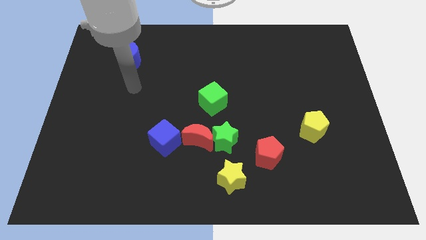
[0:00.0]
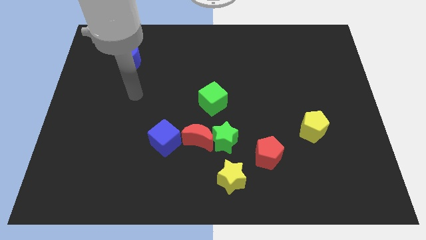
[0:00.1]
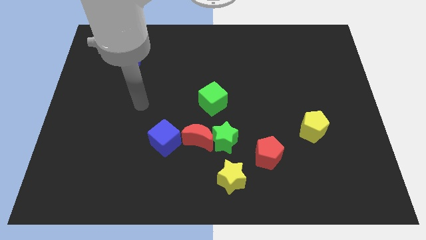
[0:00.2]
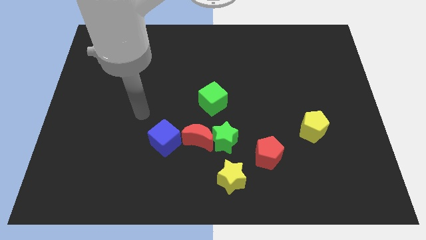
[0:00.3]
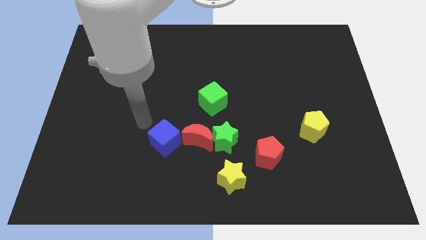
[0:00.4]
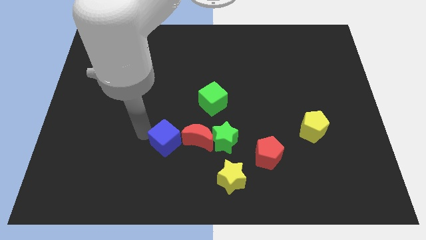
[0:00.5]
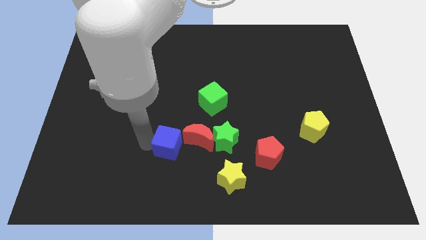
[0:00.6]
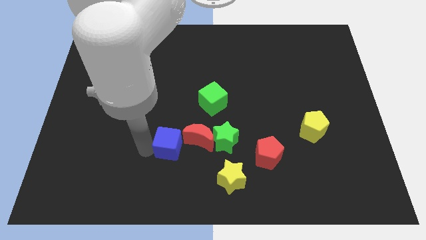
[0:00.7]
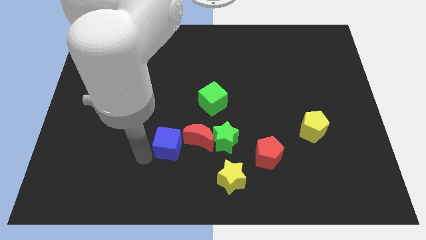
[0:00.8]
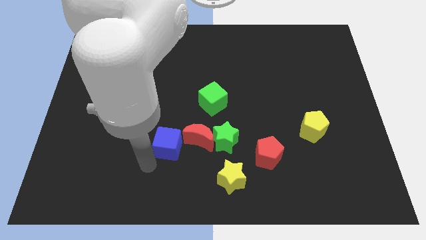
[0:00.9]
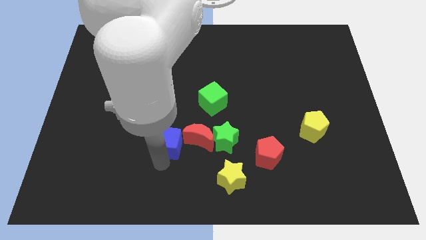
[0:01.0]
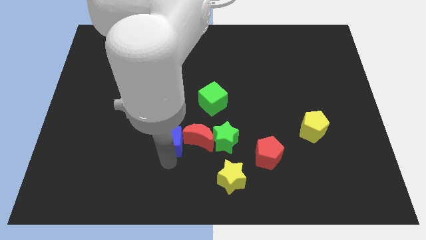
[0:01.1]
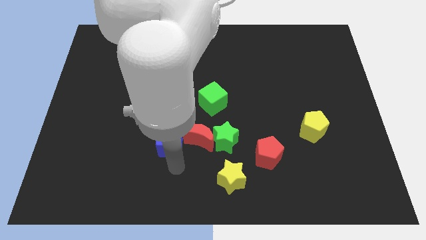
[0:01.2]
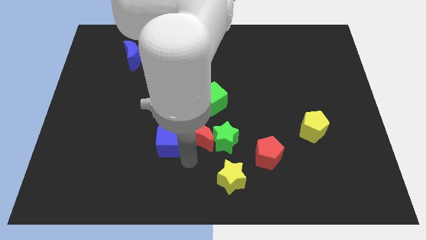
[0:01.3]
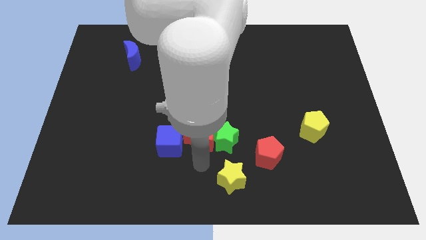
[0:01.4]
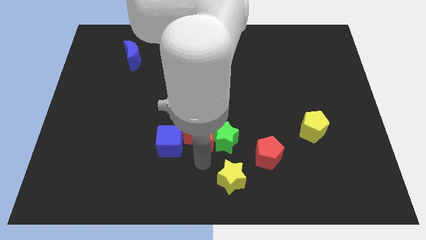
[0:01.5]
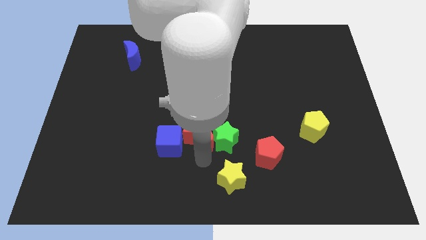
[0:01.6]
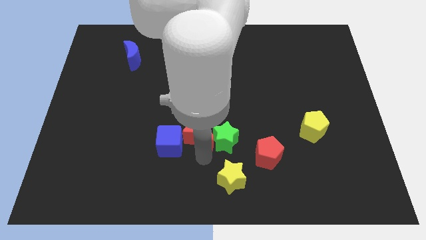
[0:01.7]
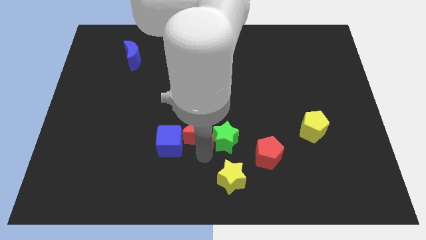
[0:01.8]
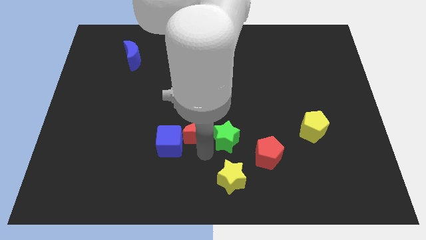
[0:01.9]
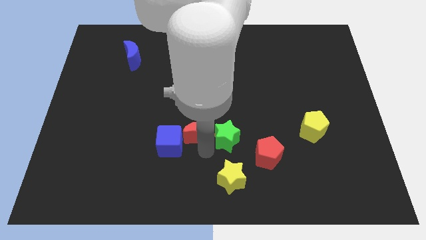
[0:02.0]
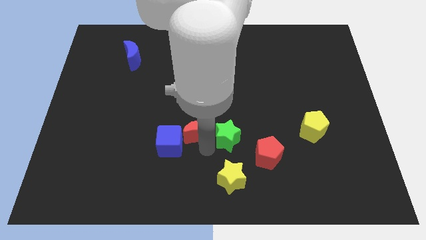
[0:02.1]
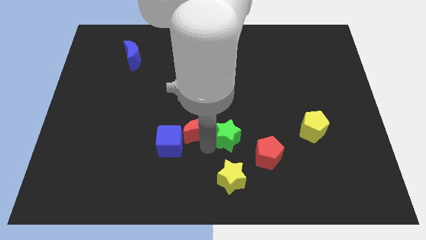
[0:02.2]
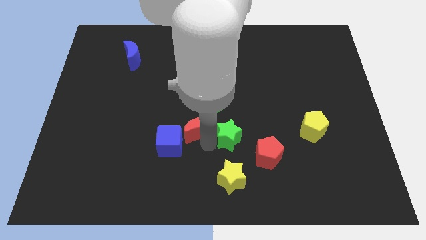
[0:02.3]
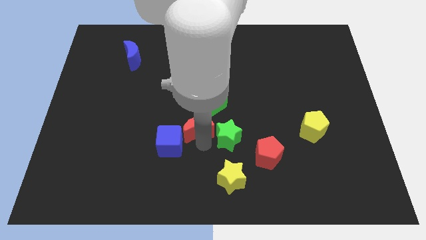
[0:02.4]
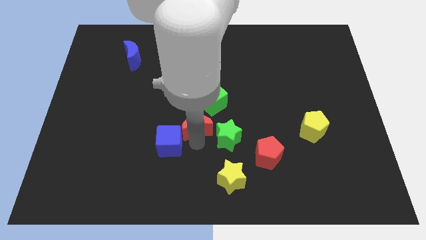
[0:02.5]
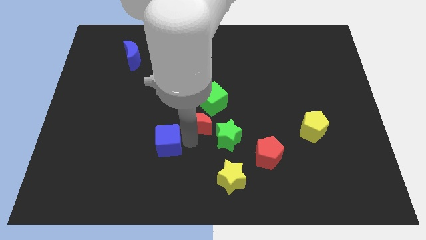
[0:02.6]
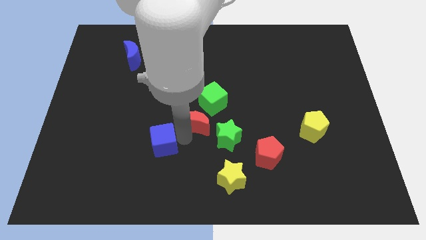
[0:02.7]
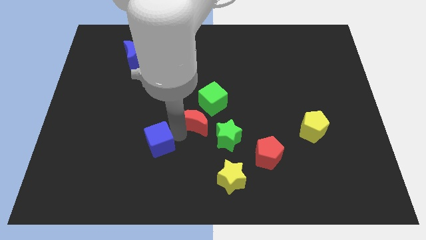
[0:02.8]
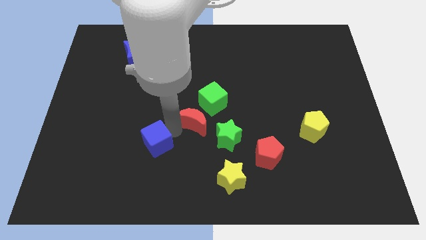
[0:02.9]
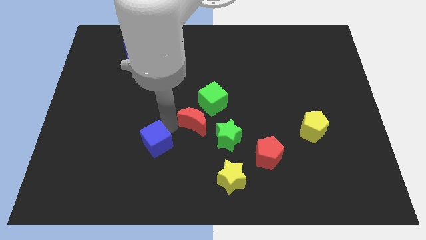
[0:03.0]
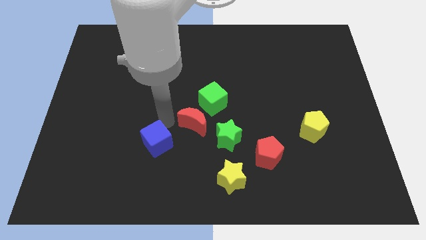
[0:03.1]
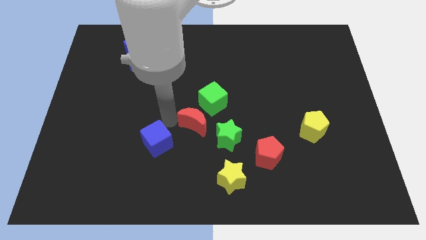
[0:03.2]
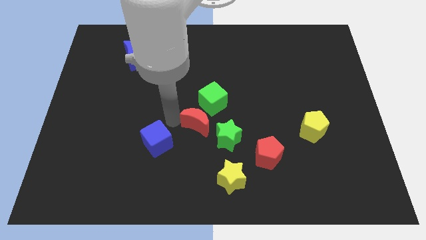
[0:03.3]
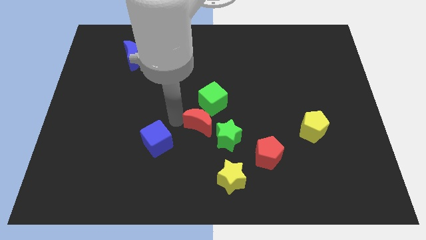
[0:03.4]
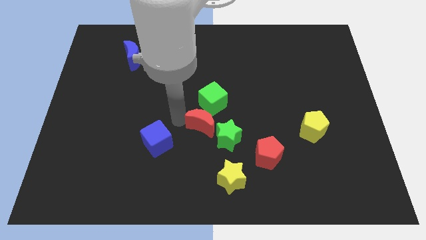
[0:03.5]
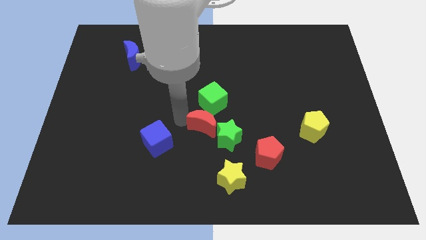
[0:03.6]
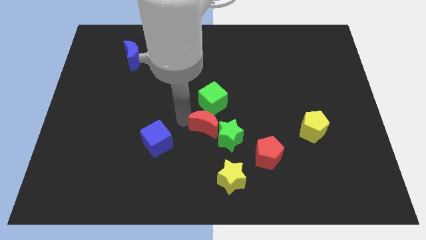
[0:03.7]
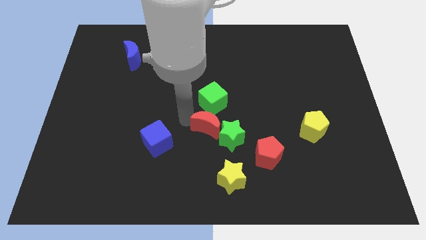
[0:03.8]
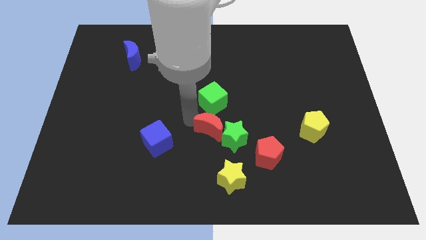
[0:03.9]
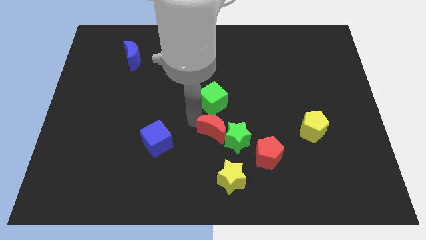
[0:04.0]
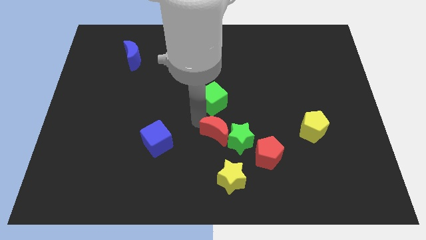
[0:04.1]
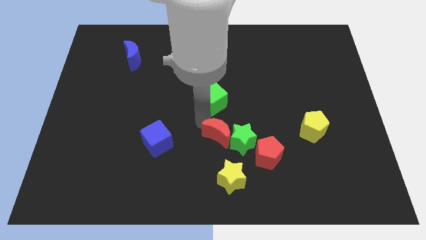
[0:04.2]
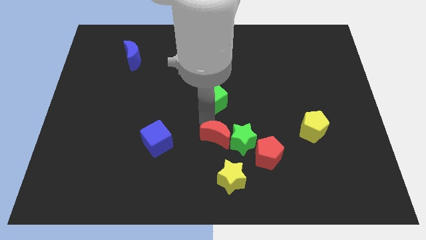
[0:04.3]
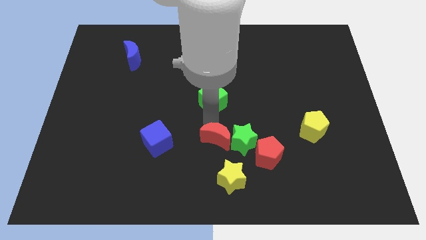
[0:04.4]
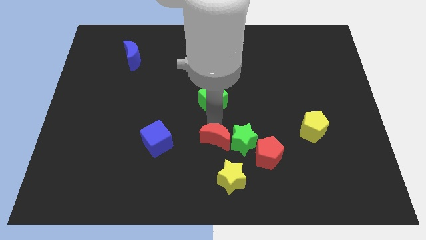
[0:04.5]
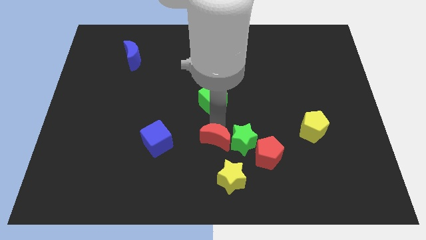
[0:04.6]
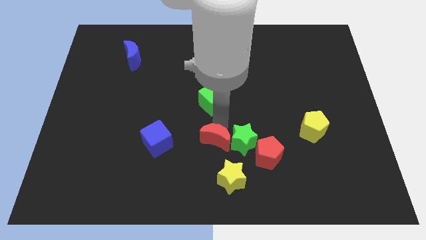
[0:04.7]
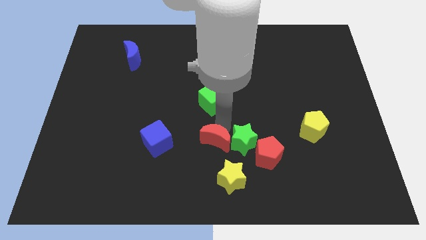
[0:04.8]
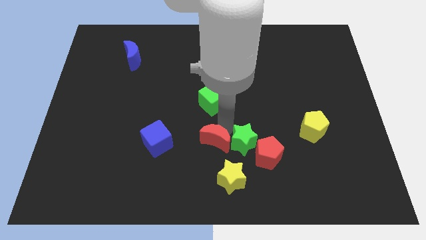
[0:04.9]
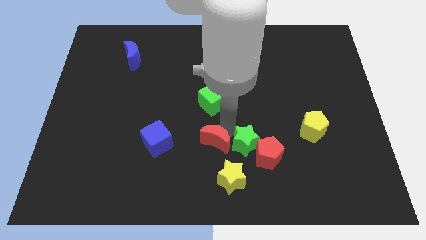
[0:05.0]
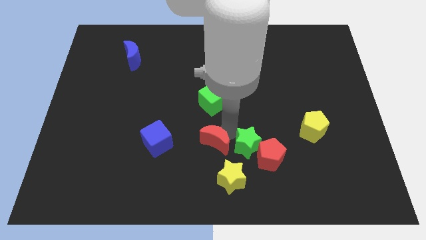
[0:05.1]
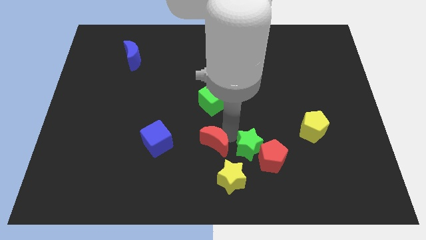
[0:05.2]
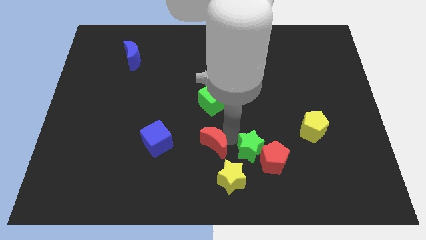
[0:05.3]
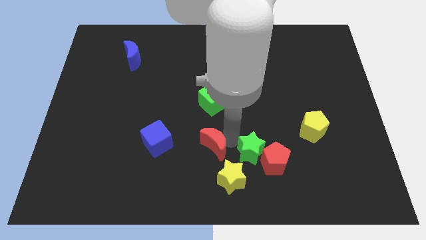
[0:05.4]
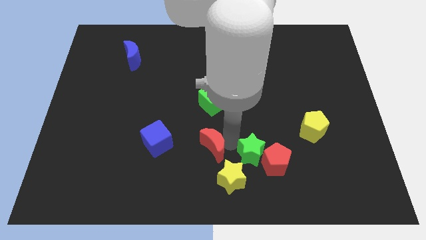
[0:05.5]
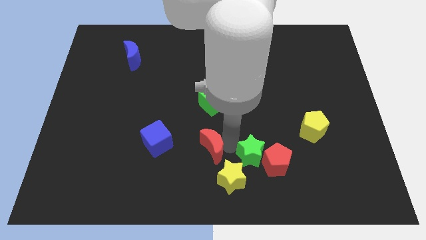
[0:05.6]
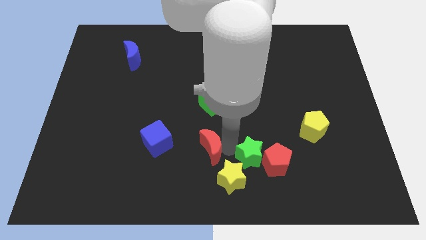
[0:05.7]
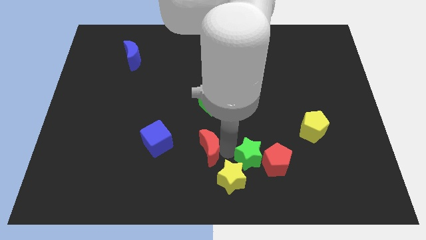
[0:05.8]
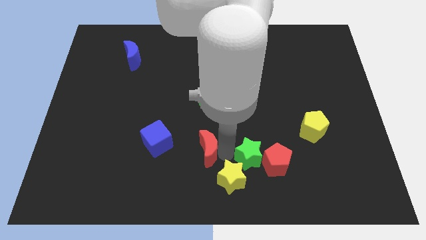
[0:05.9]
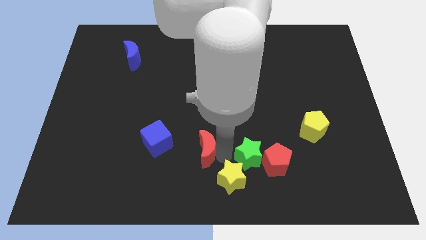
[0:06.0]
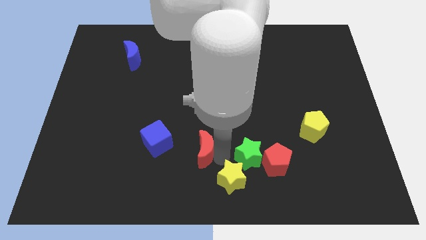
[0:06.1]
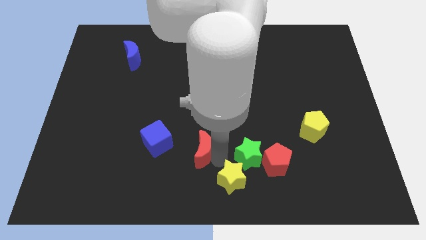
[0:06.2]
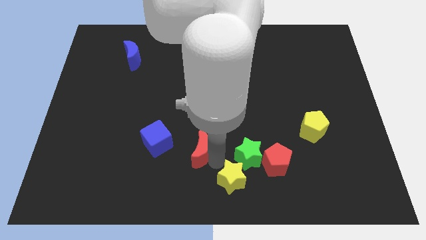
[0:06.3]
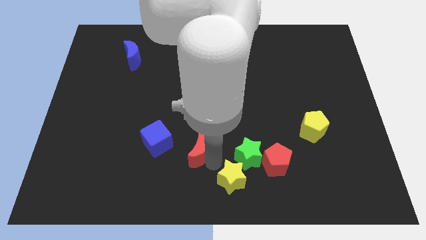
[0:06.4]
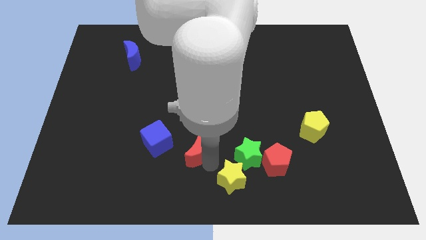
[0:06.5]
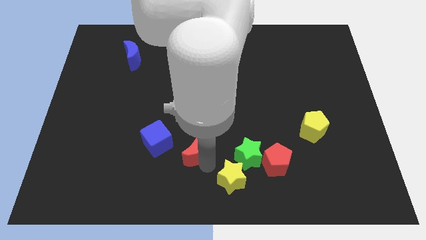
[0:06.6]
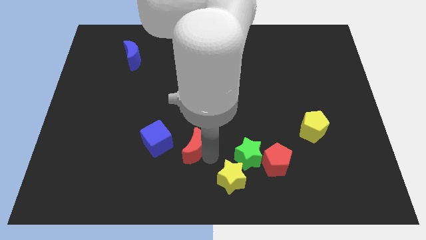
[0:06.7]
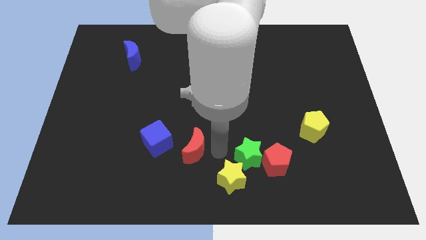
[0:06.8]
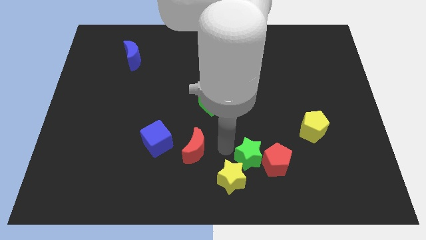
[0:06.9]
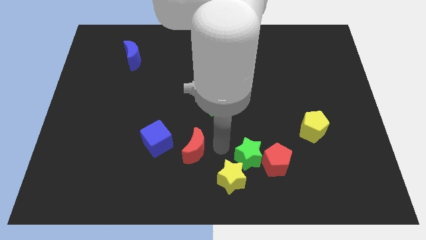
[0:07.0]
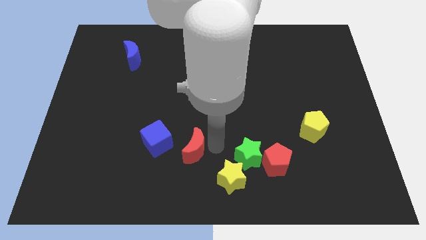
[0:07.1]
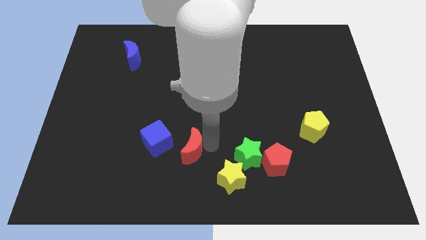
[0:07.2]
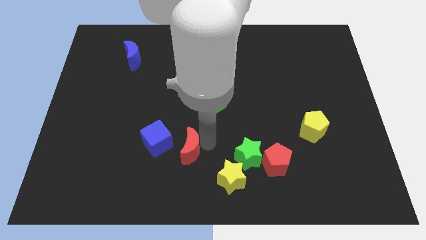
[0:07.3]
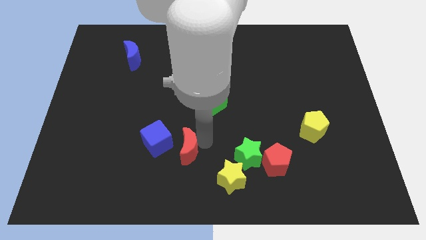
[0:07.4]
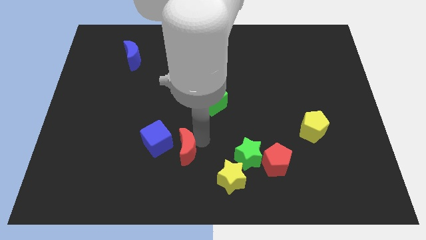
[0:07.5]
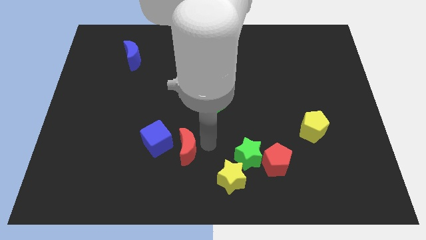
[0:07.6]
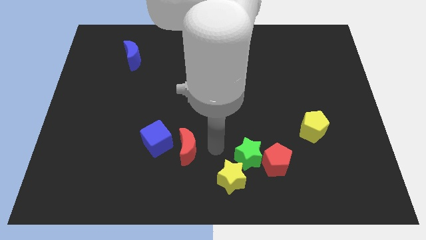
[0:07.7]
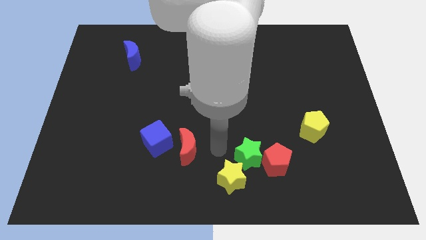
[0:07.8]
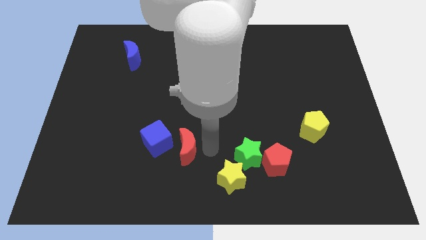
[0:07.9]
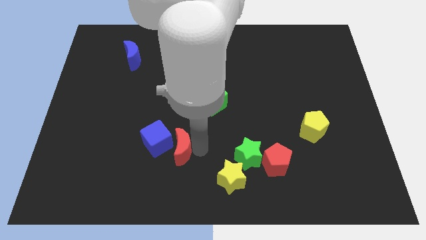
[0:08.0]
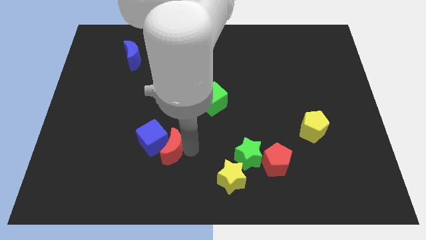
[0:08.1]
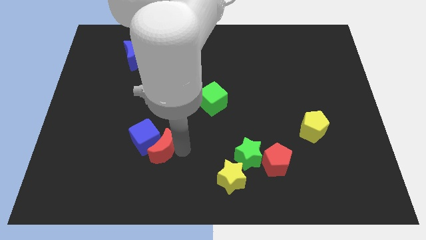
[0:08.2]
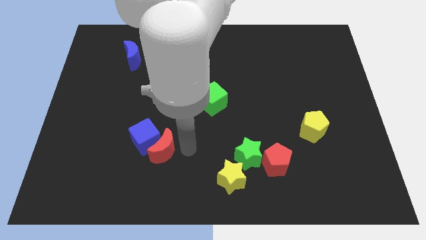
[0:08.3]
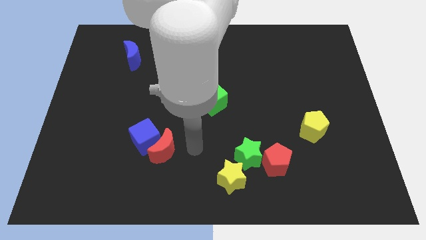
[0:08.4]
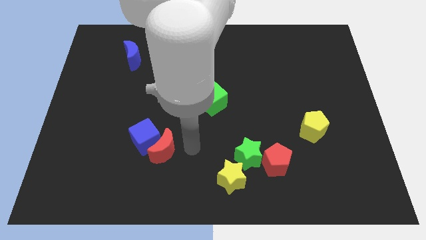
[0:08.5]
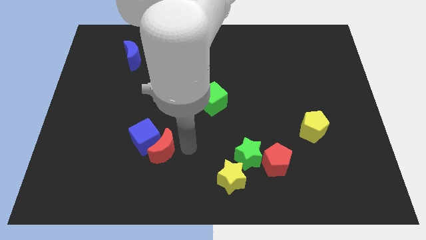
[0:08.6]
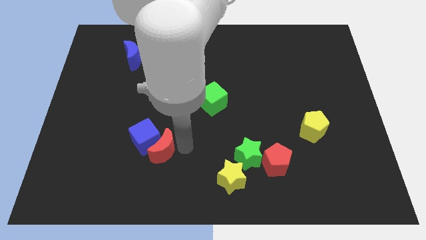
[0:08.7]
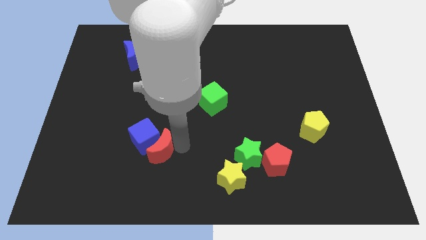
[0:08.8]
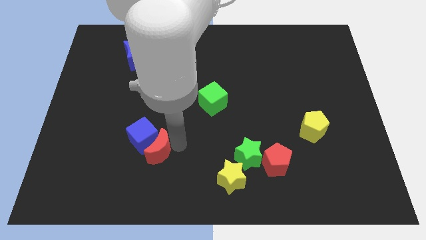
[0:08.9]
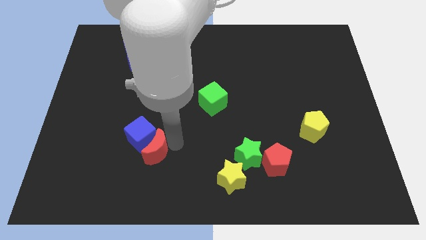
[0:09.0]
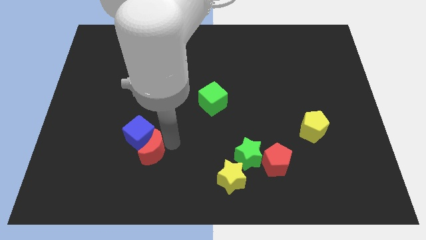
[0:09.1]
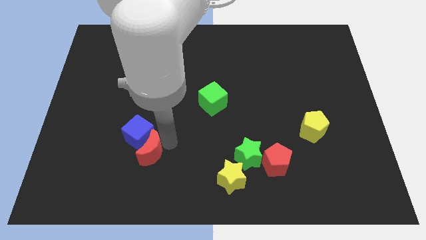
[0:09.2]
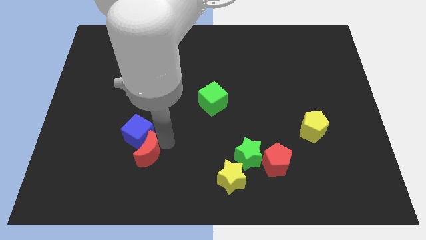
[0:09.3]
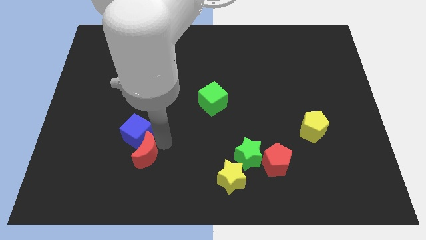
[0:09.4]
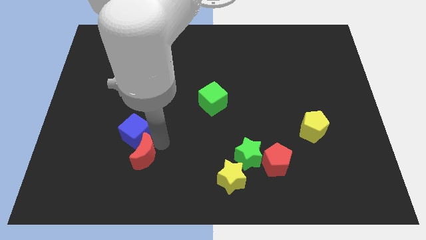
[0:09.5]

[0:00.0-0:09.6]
move the red moon away from the green star and blue cube
